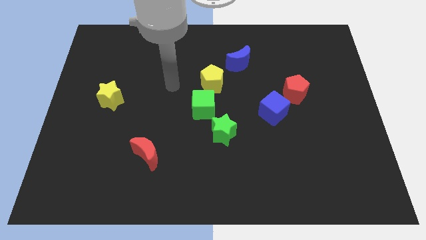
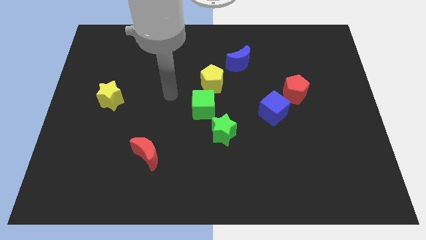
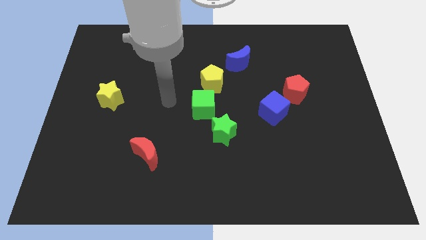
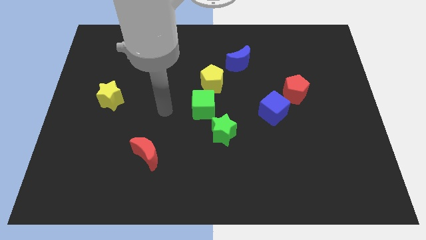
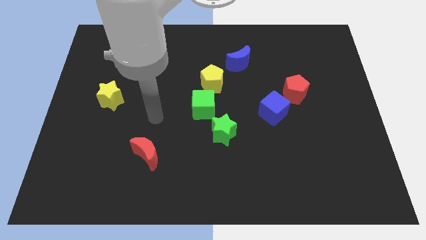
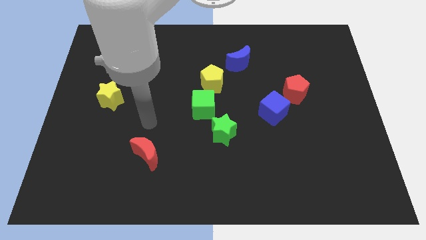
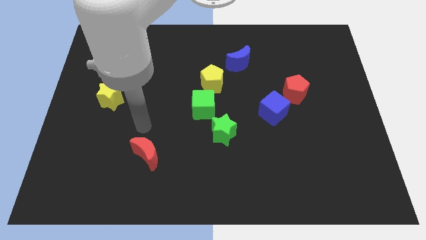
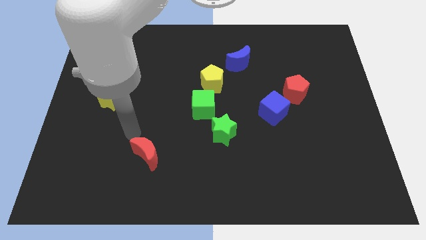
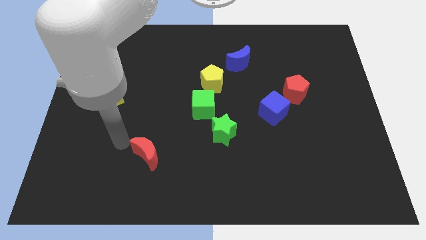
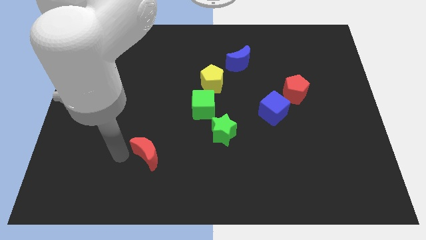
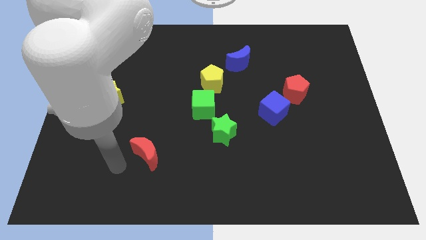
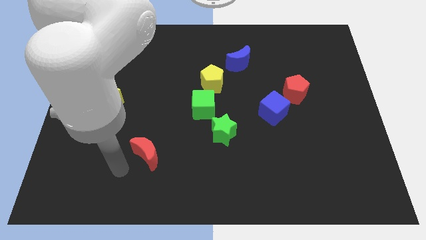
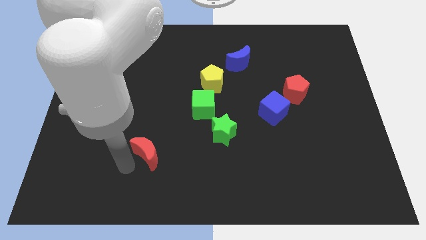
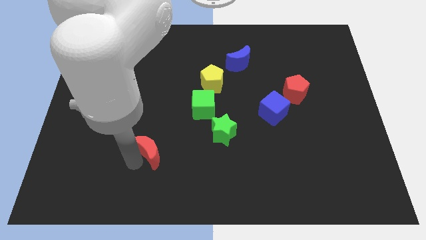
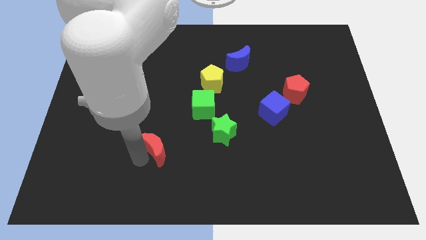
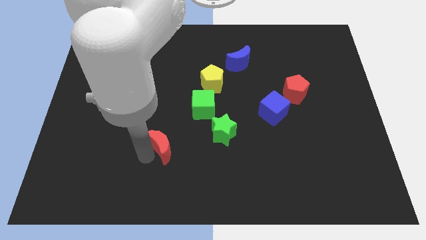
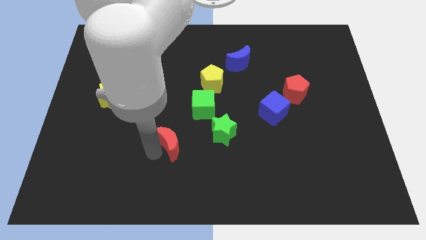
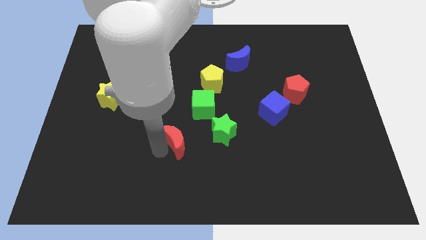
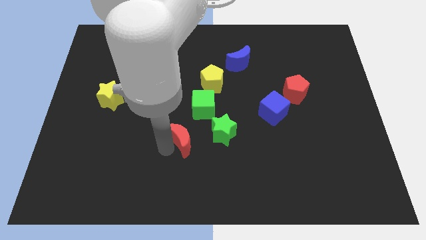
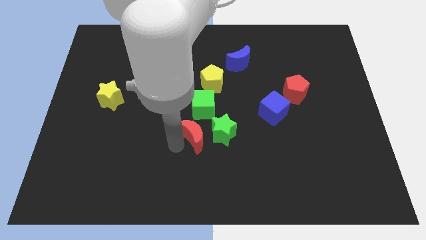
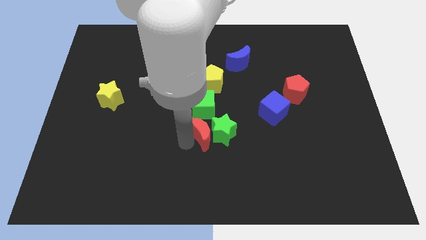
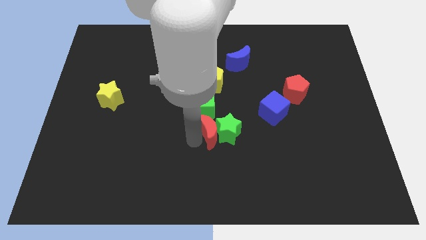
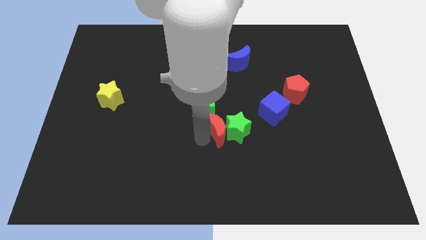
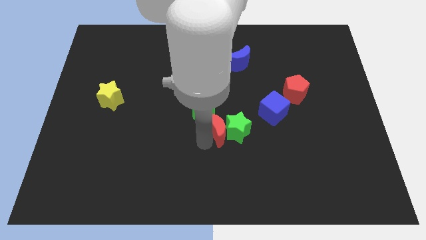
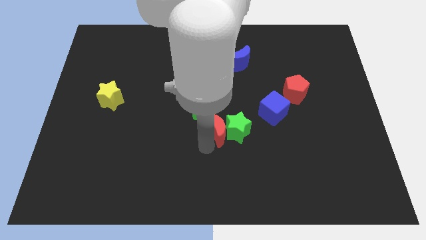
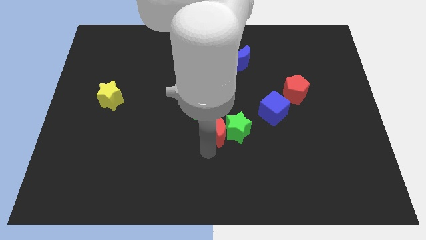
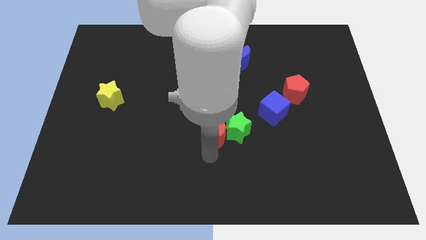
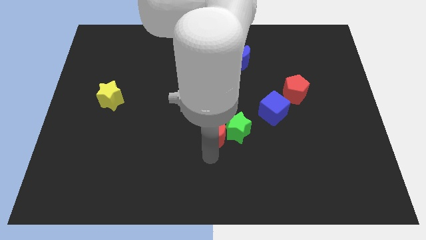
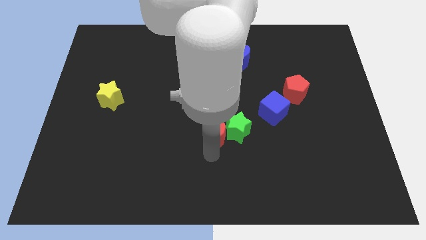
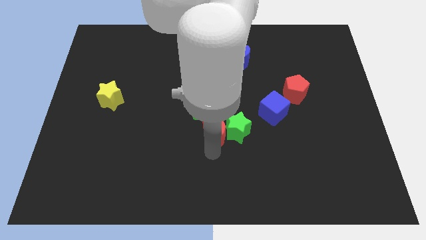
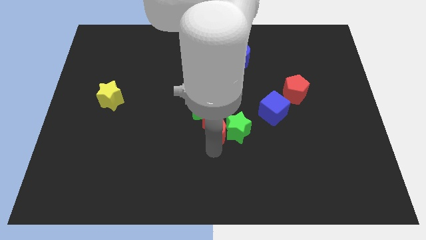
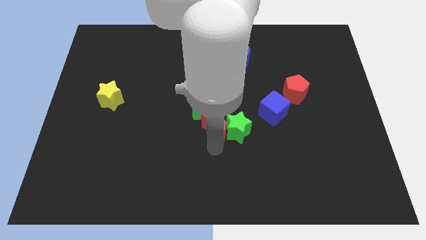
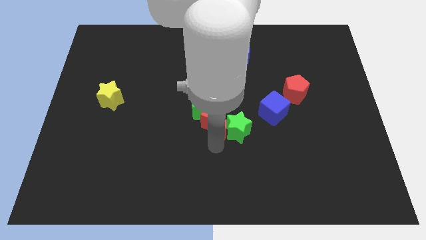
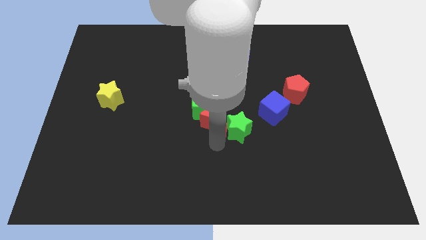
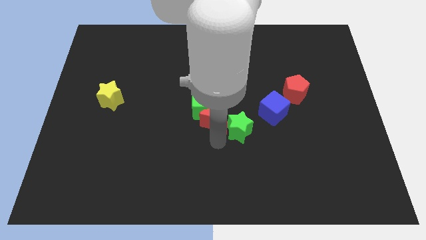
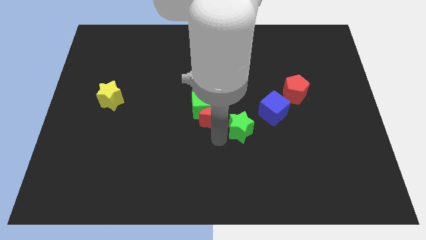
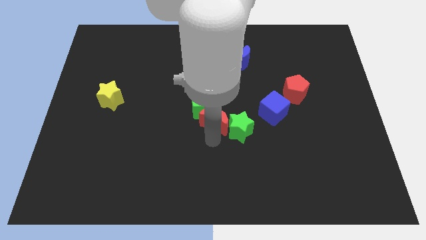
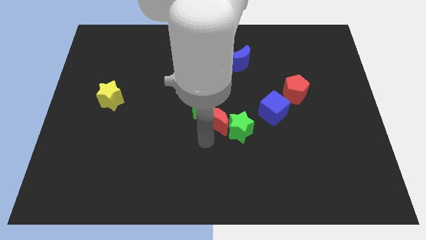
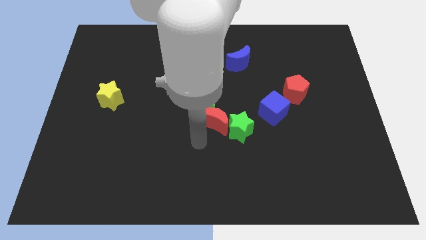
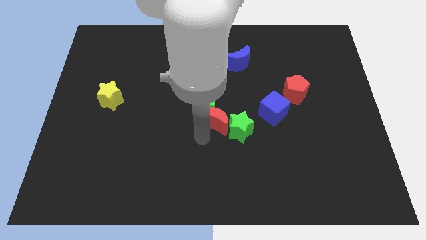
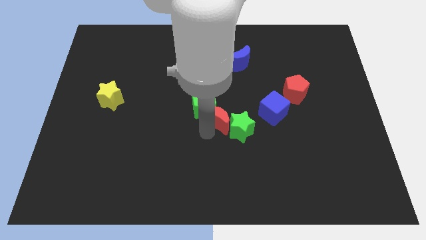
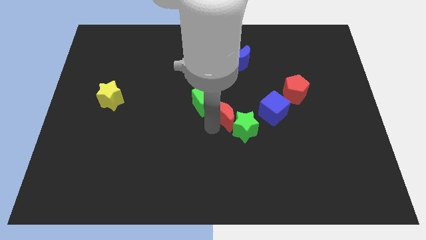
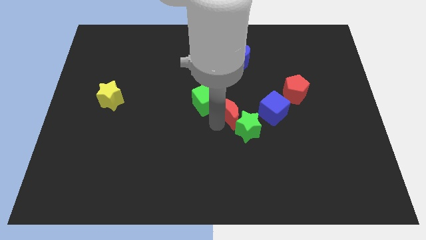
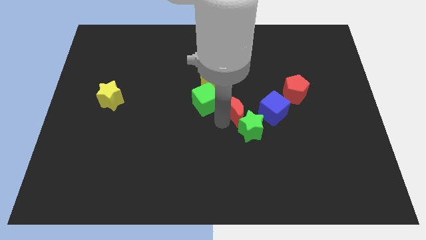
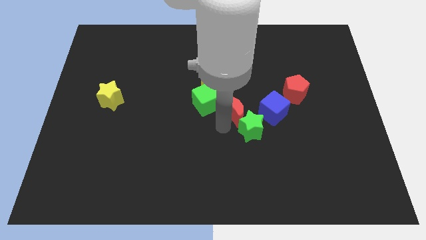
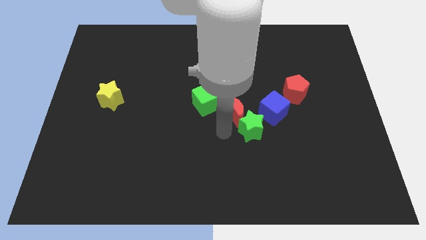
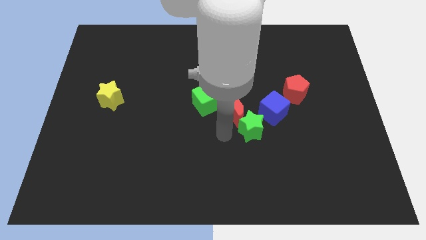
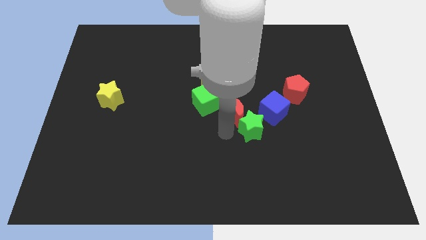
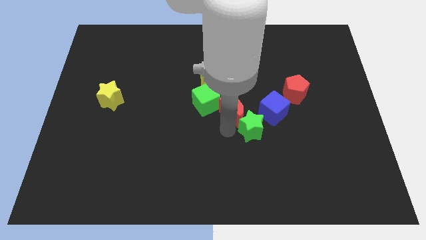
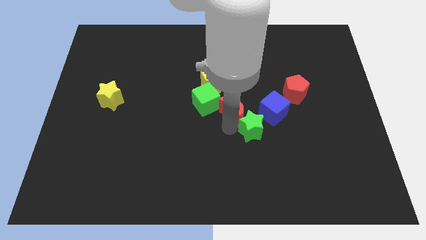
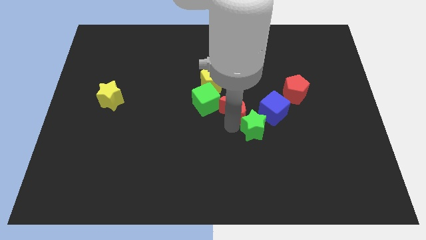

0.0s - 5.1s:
slide the red moon to the bottom of the blue moon

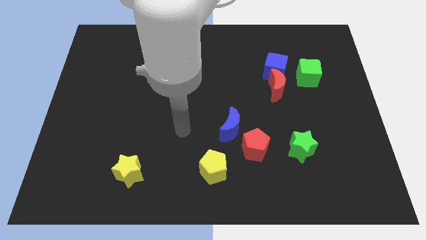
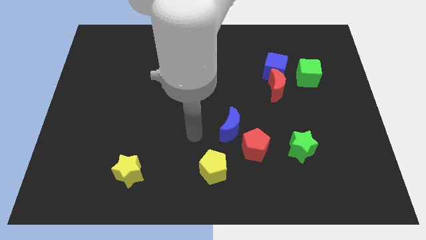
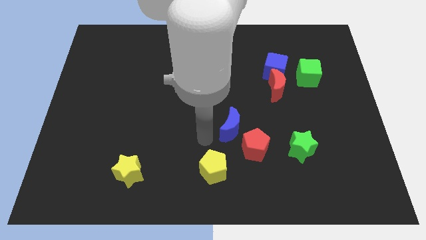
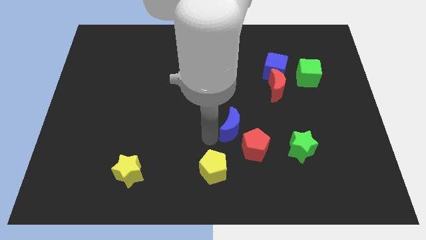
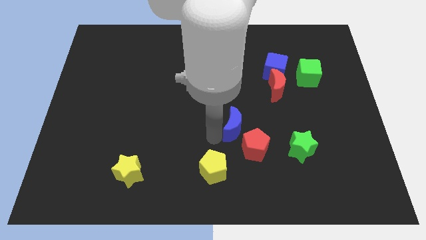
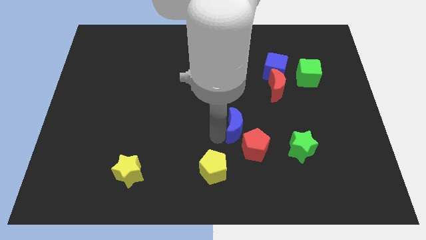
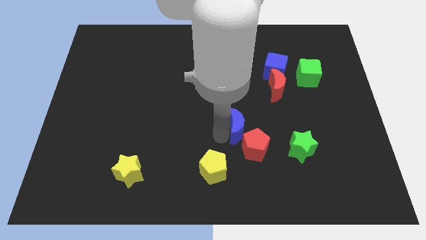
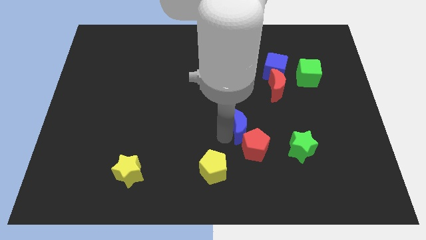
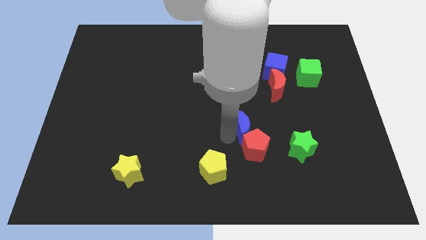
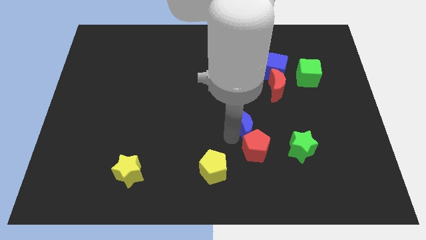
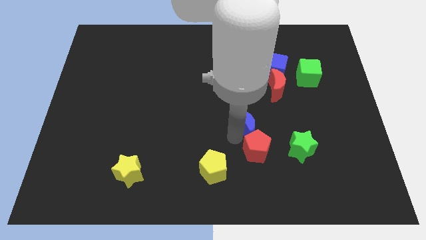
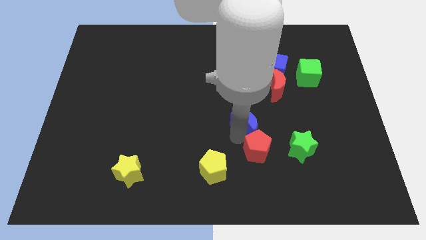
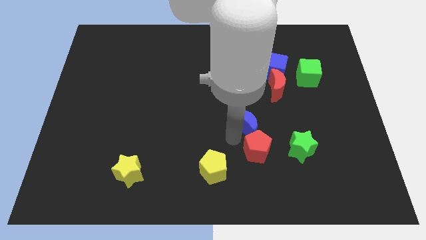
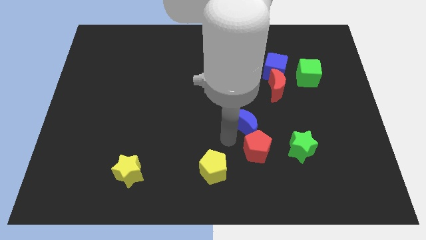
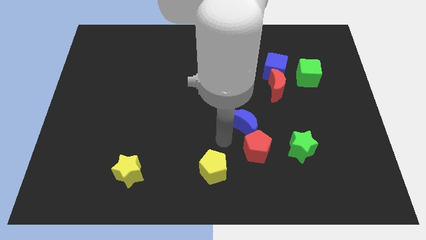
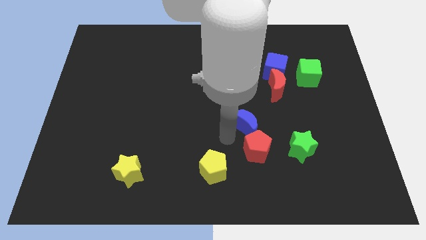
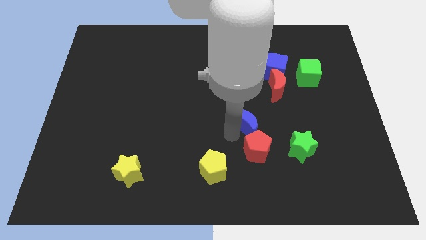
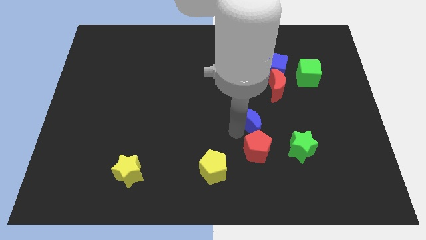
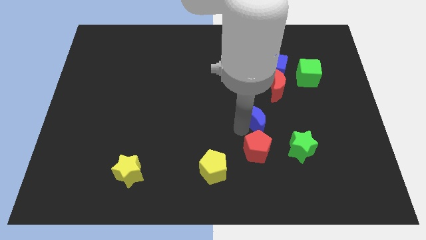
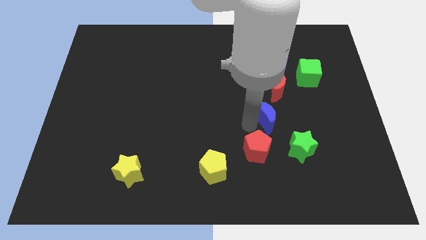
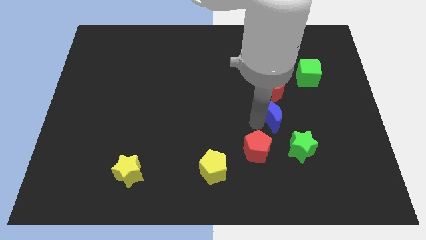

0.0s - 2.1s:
put the blue moon below the blue cube

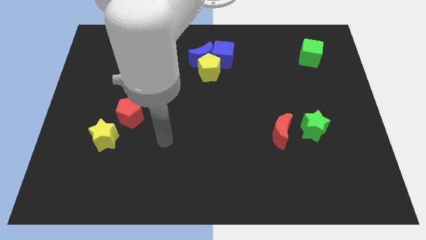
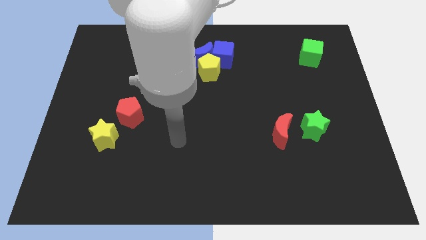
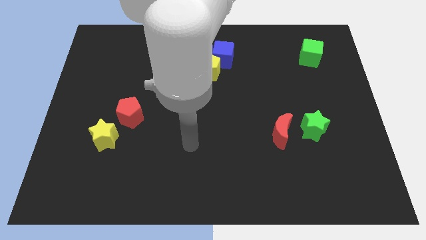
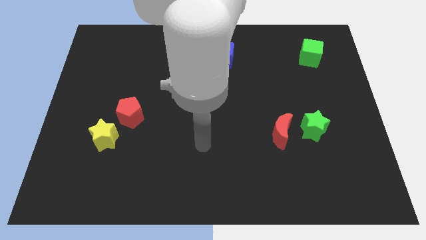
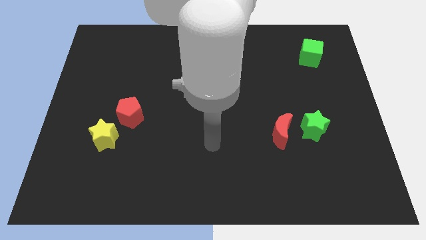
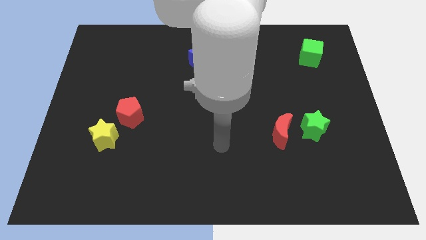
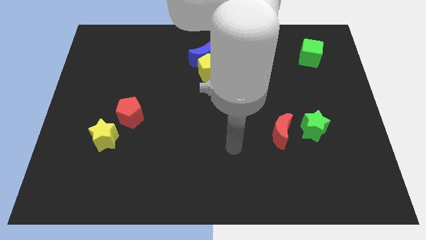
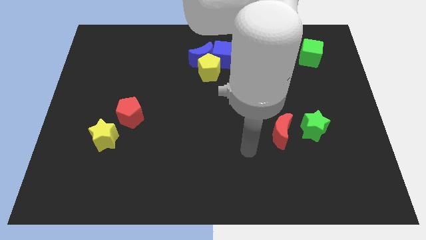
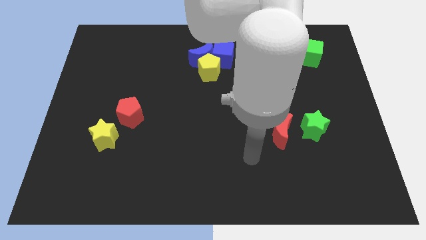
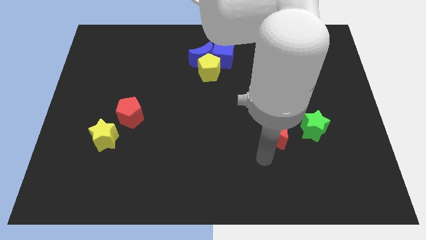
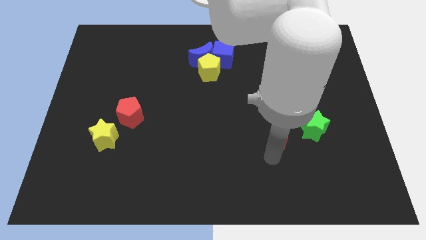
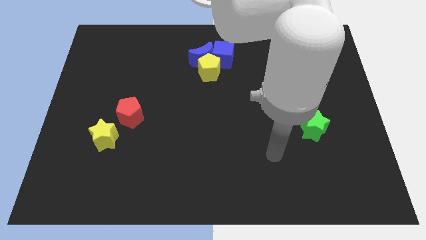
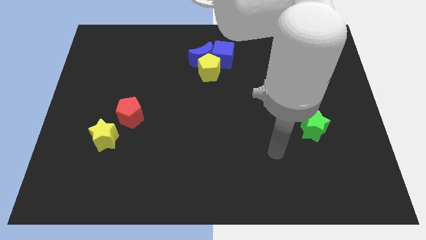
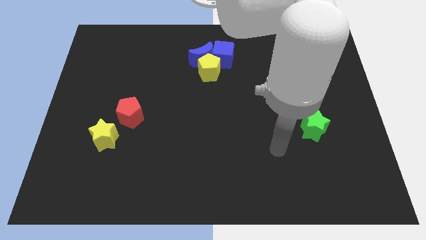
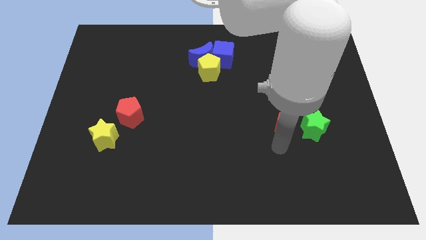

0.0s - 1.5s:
move the red moon to the top left side of the green star
